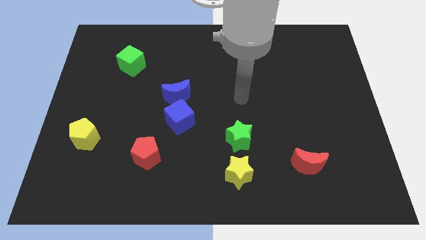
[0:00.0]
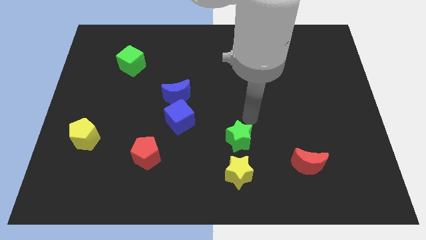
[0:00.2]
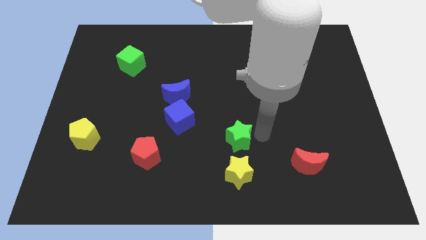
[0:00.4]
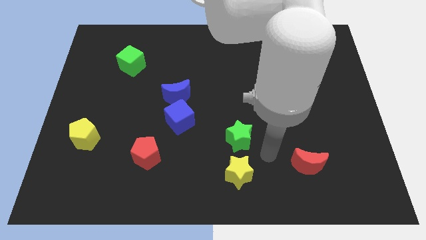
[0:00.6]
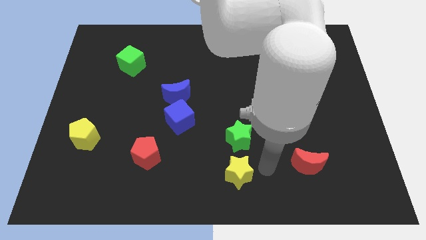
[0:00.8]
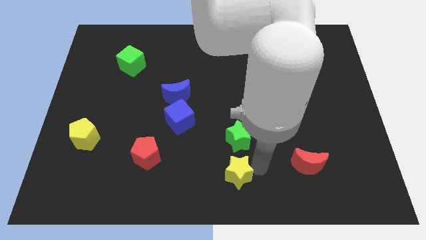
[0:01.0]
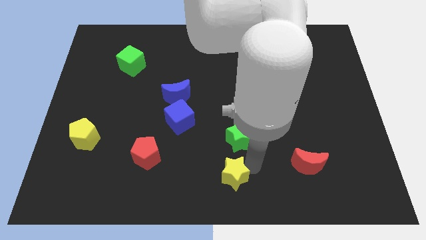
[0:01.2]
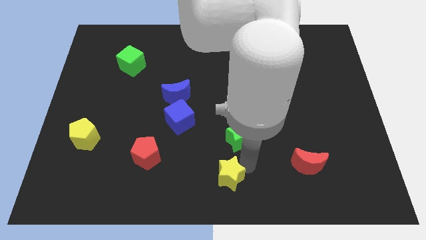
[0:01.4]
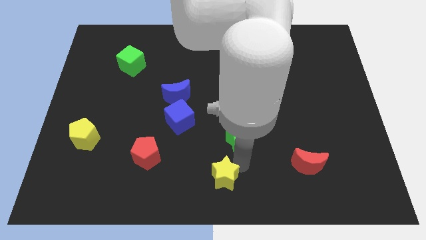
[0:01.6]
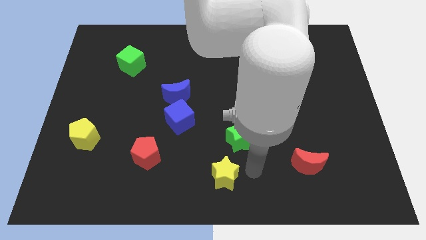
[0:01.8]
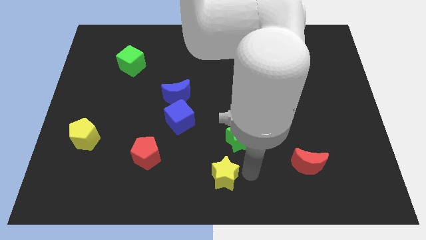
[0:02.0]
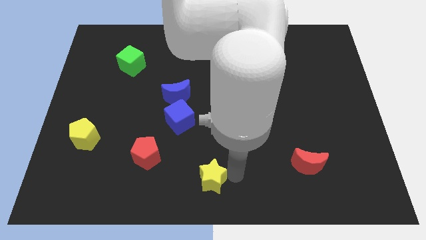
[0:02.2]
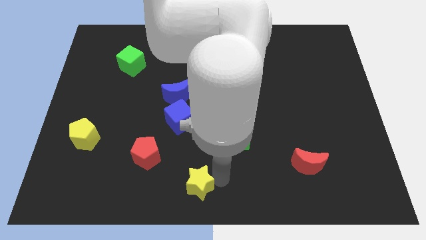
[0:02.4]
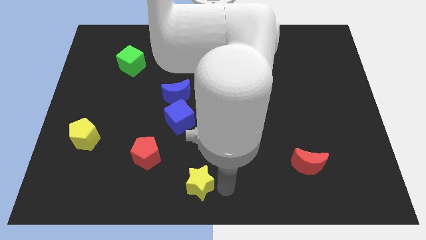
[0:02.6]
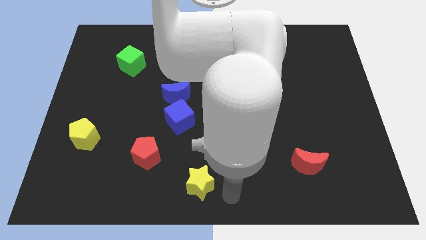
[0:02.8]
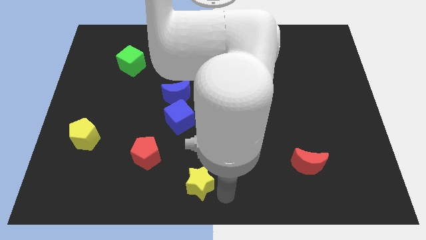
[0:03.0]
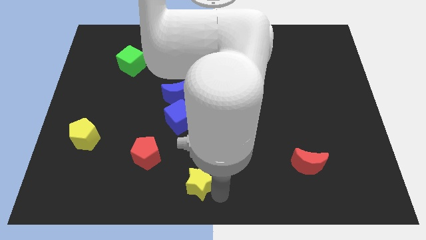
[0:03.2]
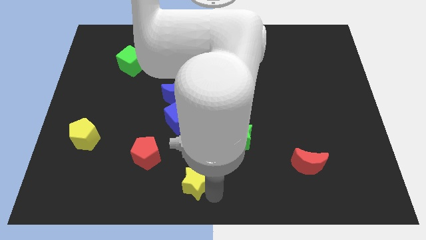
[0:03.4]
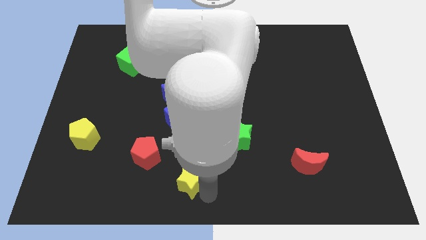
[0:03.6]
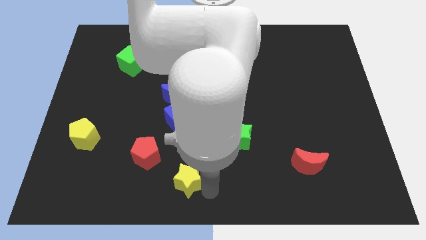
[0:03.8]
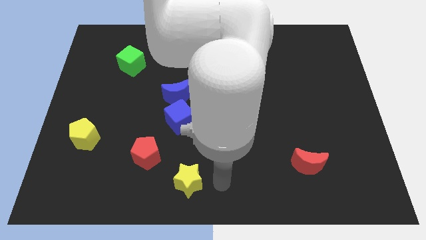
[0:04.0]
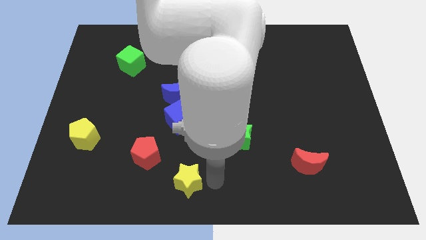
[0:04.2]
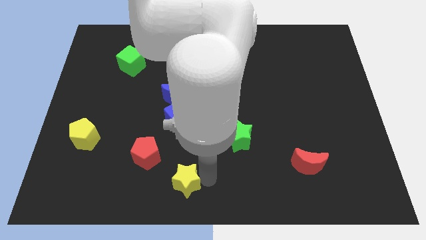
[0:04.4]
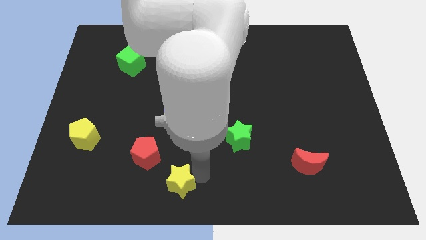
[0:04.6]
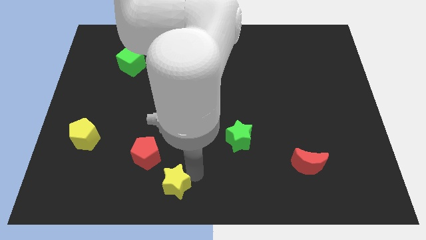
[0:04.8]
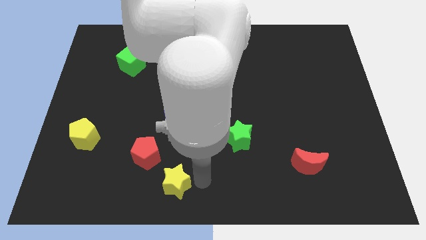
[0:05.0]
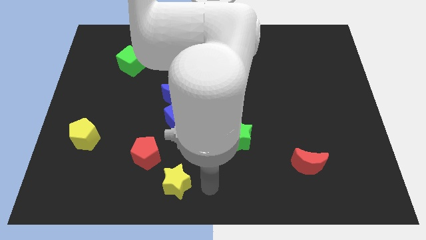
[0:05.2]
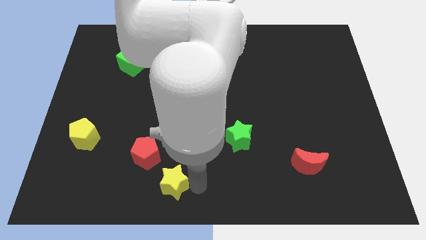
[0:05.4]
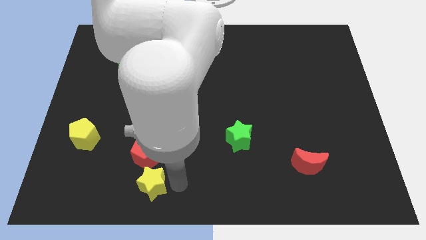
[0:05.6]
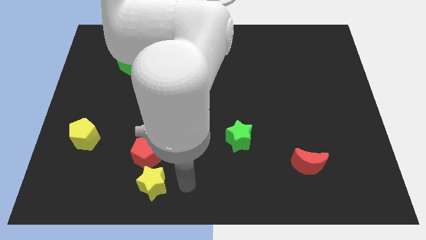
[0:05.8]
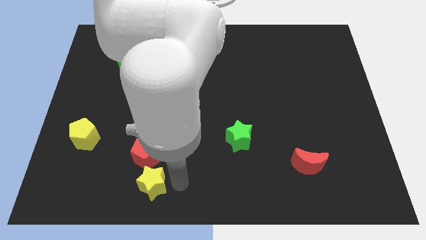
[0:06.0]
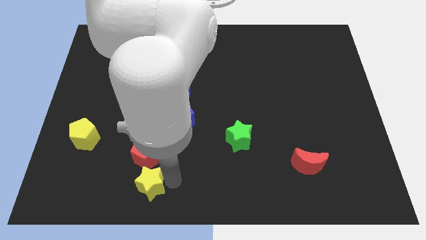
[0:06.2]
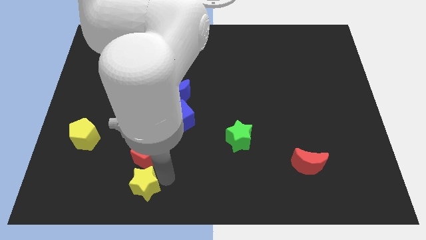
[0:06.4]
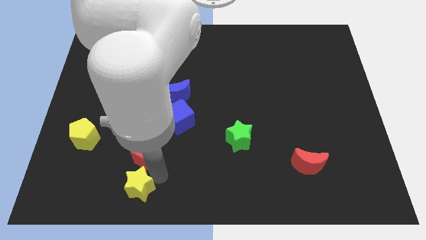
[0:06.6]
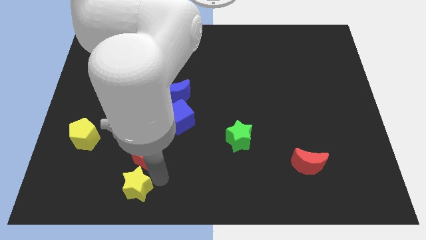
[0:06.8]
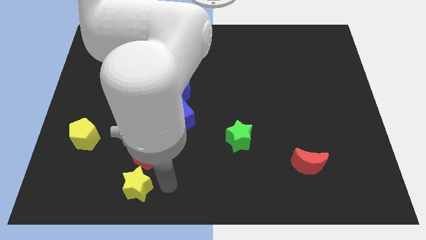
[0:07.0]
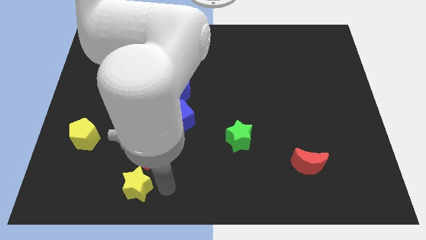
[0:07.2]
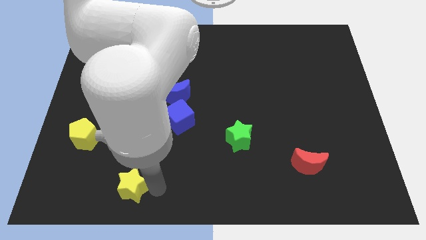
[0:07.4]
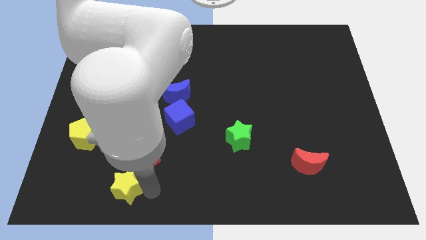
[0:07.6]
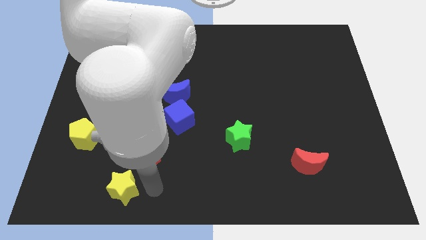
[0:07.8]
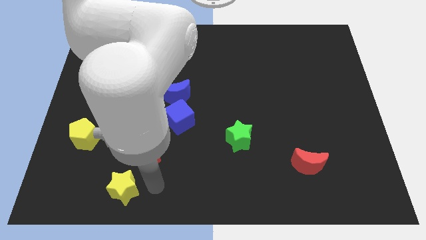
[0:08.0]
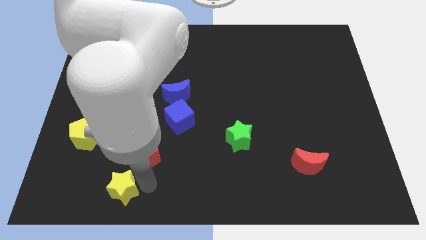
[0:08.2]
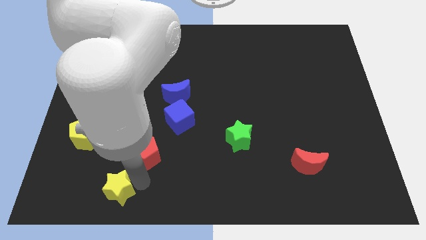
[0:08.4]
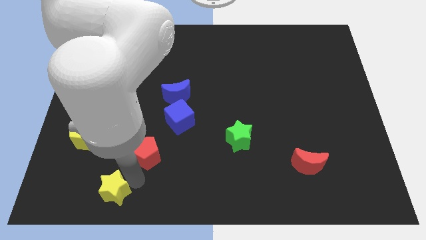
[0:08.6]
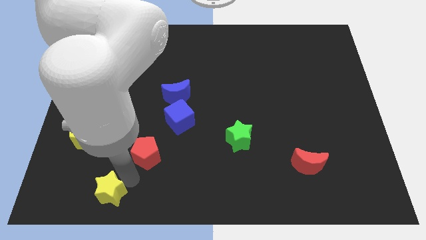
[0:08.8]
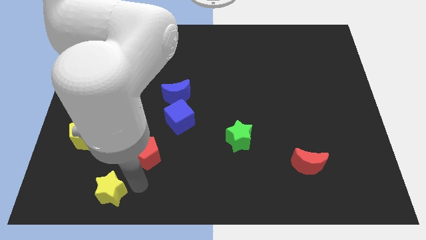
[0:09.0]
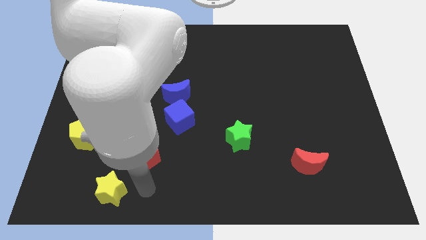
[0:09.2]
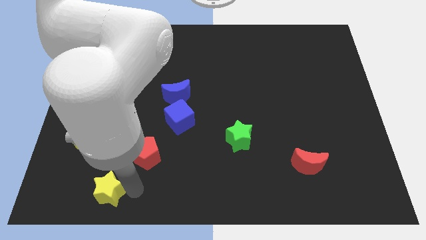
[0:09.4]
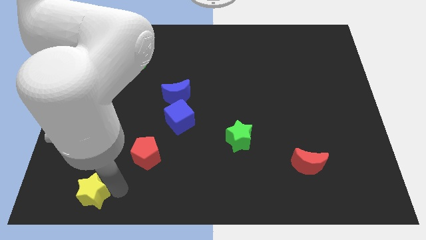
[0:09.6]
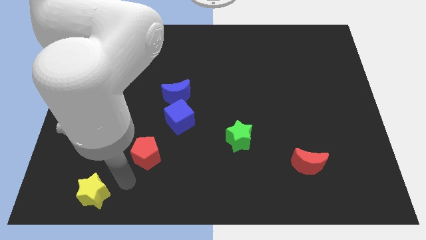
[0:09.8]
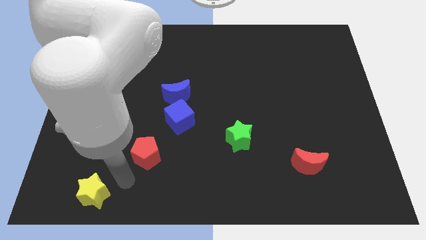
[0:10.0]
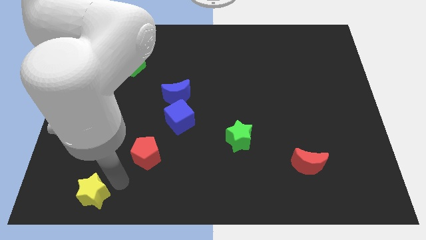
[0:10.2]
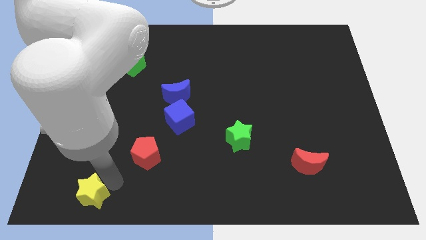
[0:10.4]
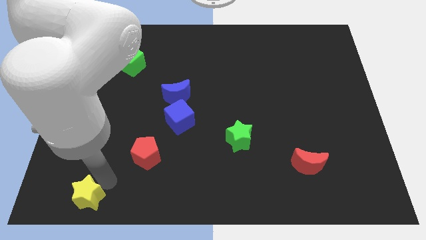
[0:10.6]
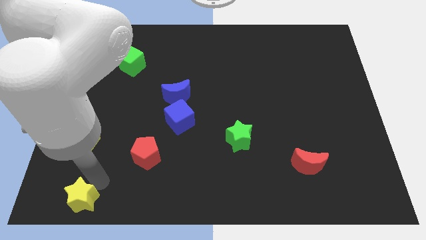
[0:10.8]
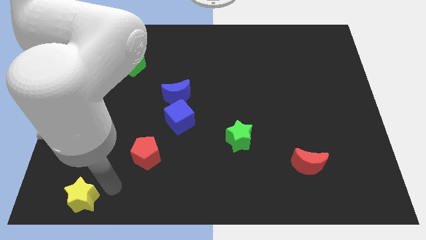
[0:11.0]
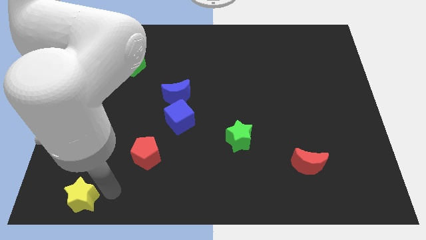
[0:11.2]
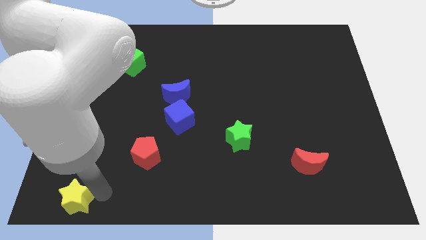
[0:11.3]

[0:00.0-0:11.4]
slide the yellow star to the bottom left corner
